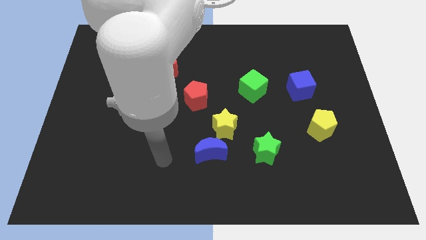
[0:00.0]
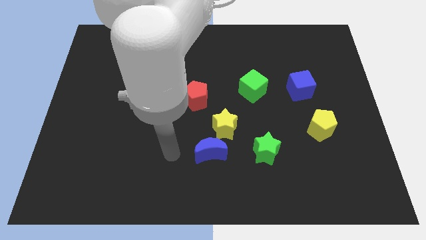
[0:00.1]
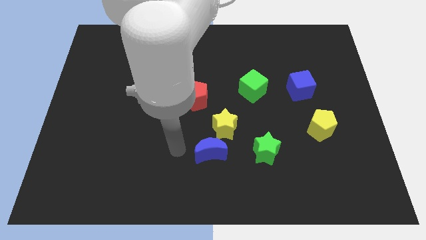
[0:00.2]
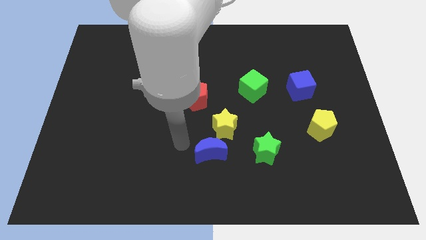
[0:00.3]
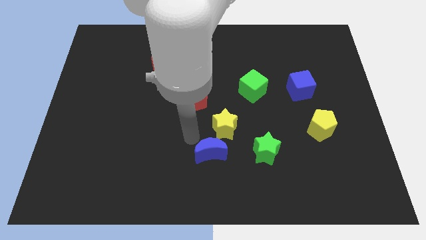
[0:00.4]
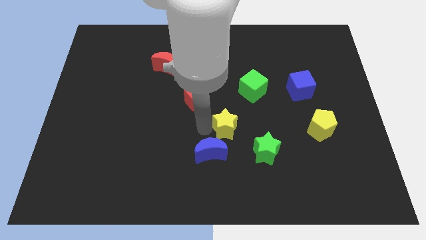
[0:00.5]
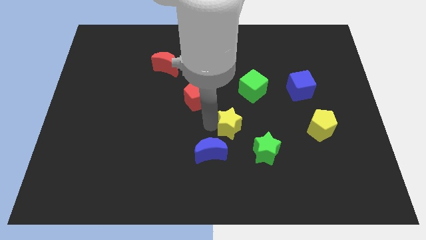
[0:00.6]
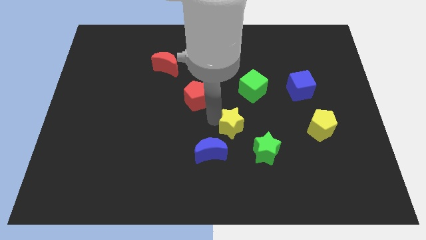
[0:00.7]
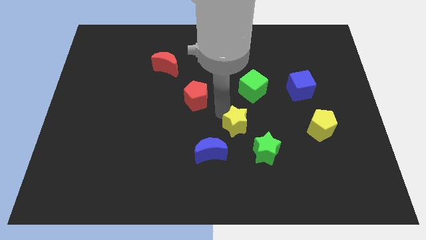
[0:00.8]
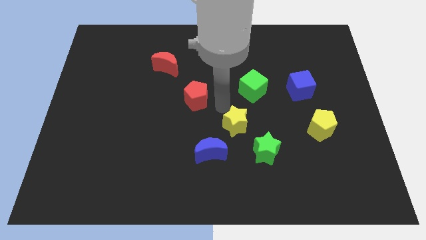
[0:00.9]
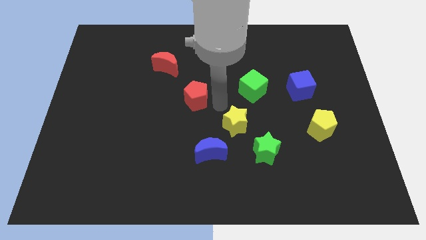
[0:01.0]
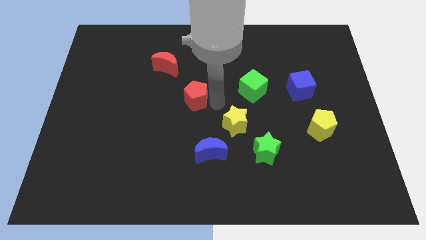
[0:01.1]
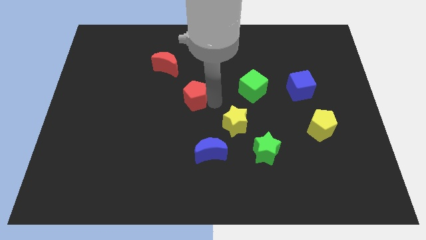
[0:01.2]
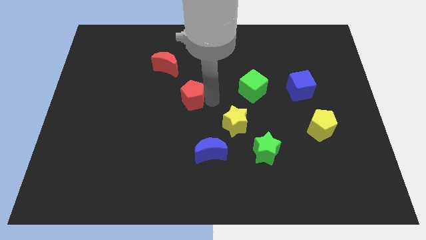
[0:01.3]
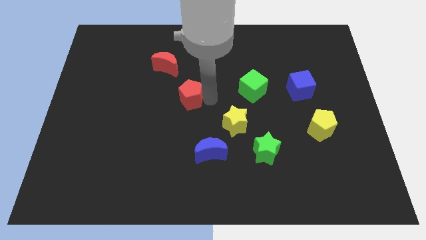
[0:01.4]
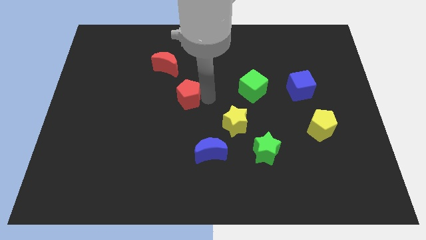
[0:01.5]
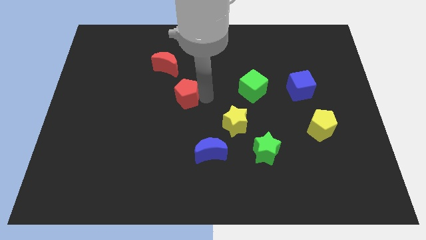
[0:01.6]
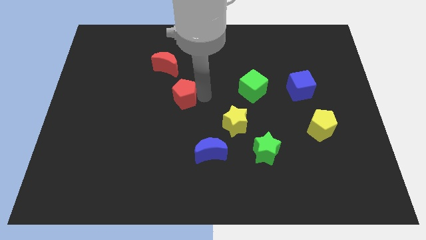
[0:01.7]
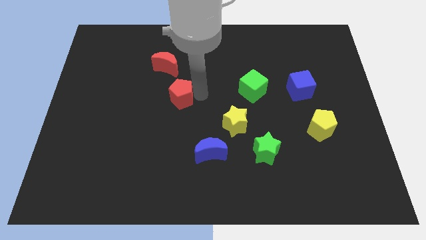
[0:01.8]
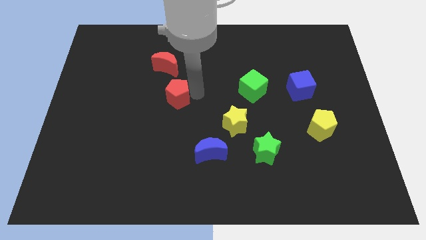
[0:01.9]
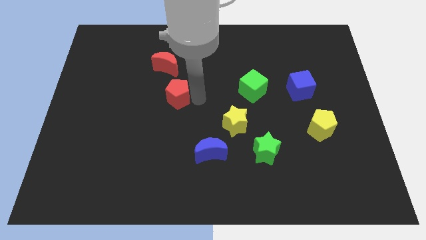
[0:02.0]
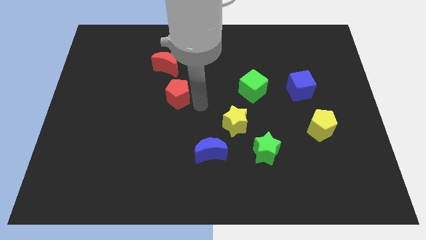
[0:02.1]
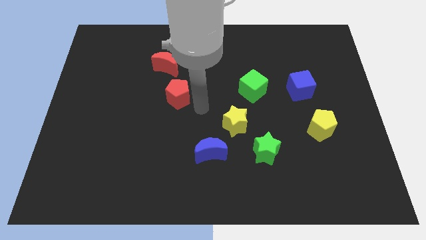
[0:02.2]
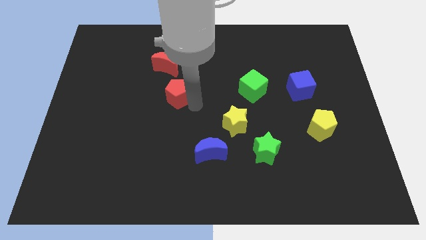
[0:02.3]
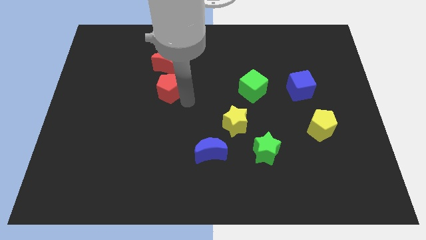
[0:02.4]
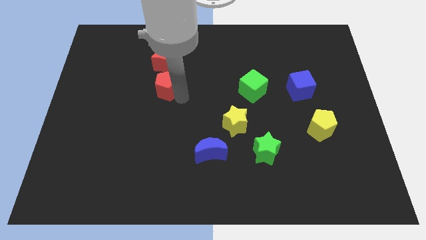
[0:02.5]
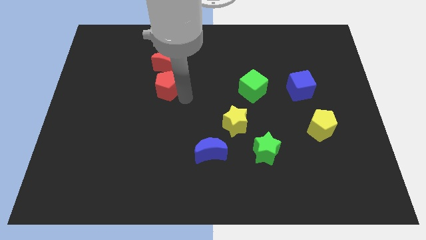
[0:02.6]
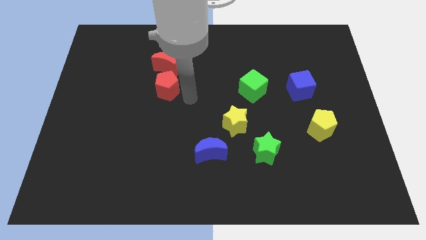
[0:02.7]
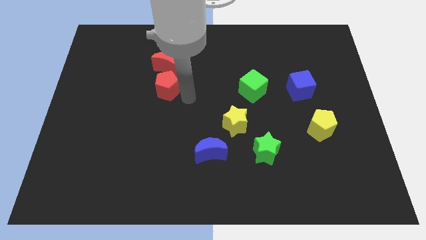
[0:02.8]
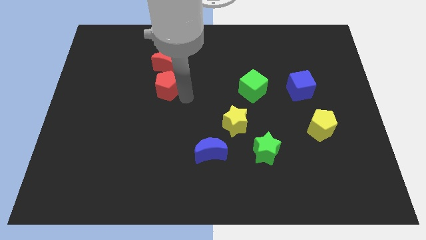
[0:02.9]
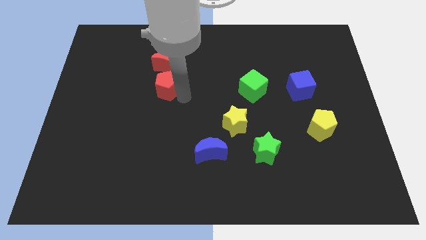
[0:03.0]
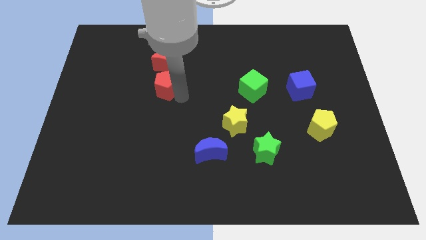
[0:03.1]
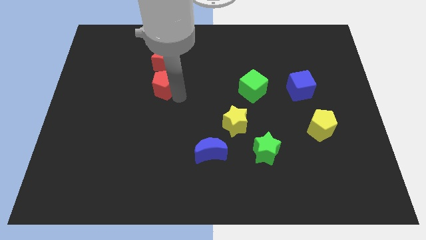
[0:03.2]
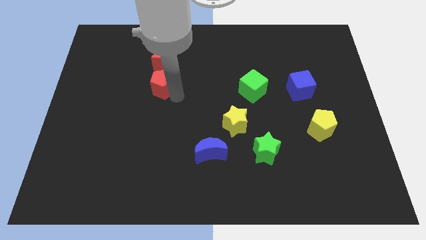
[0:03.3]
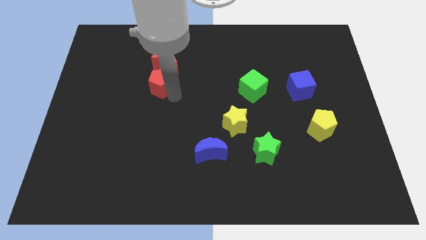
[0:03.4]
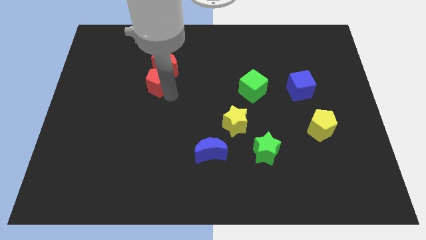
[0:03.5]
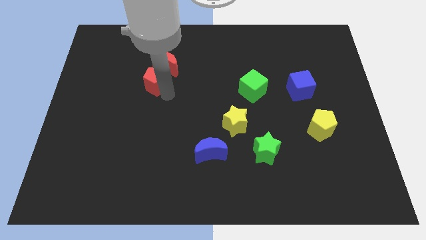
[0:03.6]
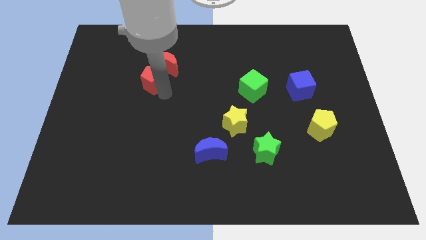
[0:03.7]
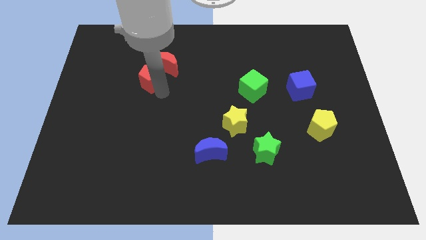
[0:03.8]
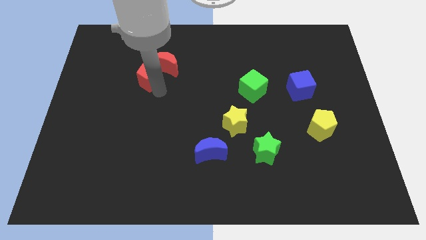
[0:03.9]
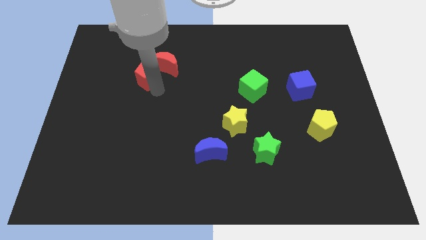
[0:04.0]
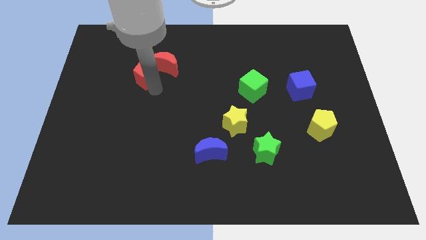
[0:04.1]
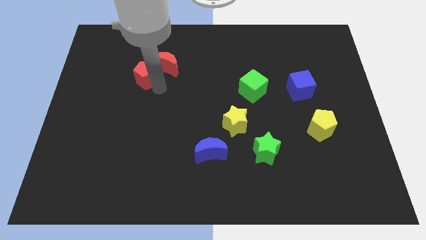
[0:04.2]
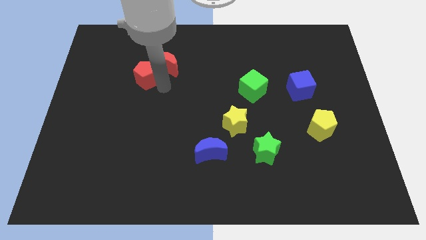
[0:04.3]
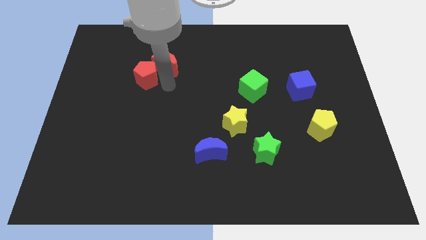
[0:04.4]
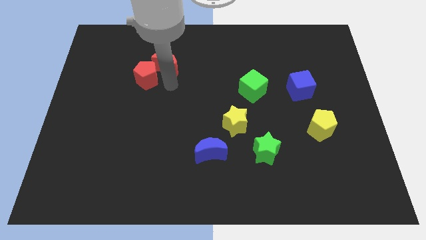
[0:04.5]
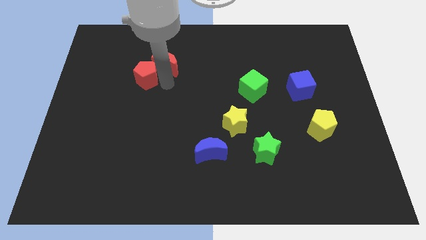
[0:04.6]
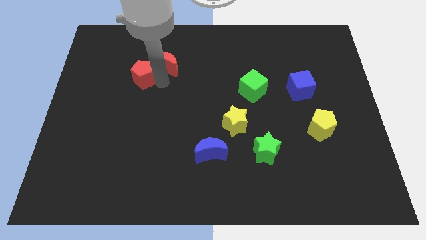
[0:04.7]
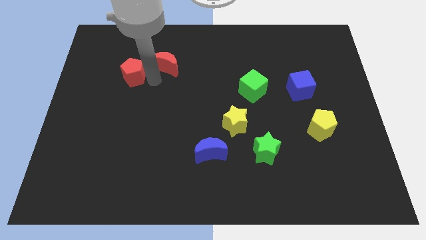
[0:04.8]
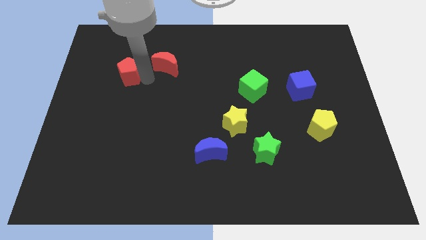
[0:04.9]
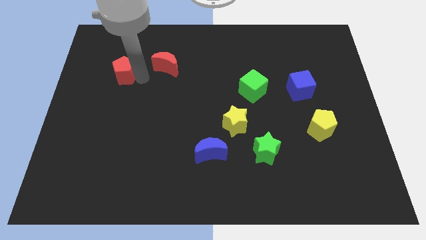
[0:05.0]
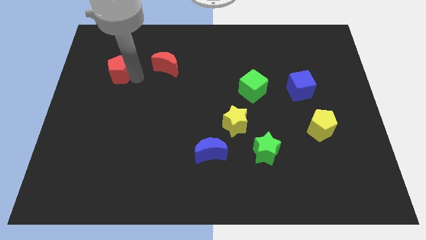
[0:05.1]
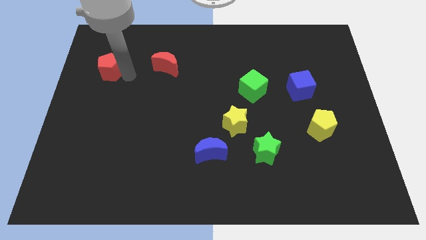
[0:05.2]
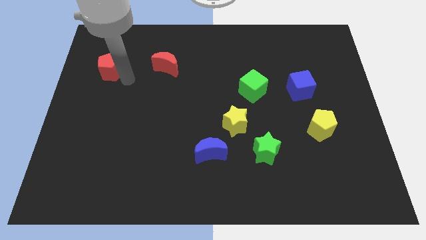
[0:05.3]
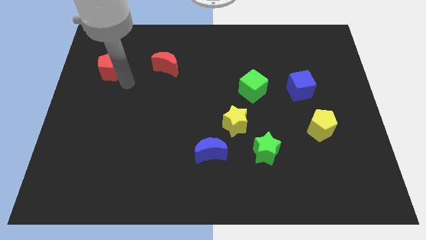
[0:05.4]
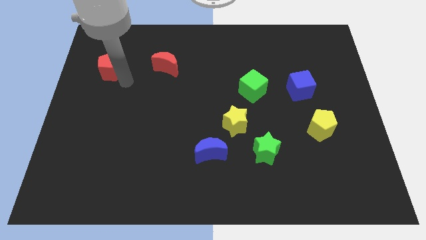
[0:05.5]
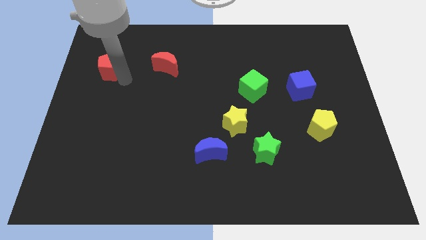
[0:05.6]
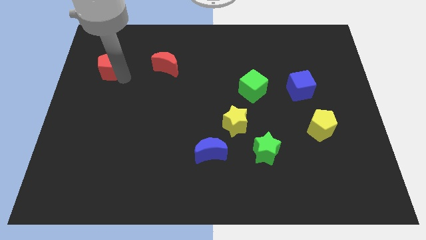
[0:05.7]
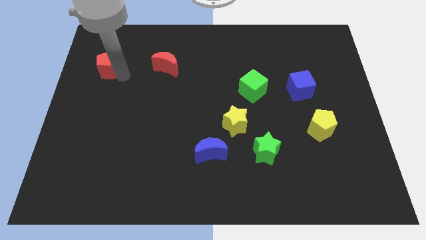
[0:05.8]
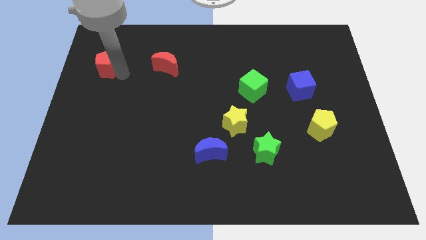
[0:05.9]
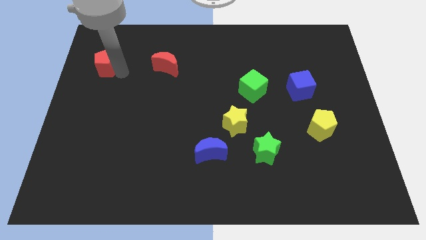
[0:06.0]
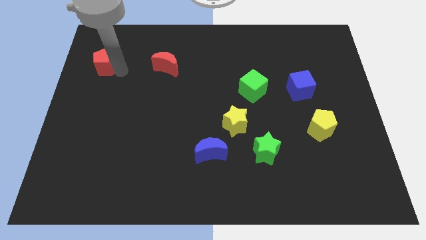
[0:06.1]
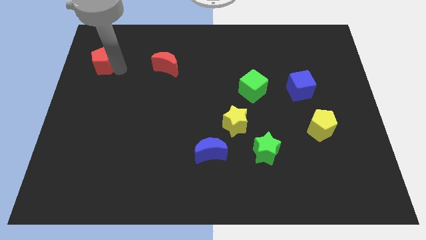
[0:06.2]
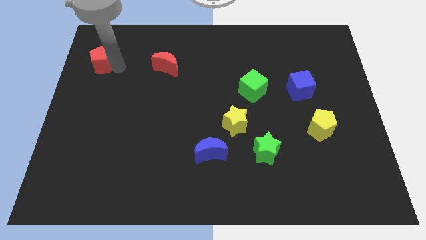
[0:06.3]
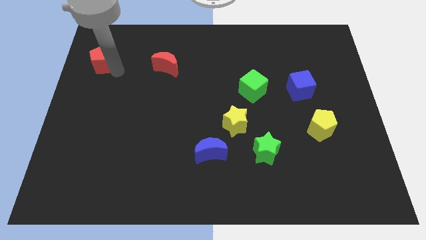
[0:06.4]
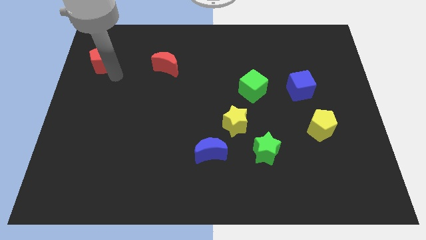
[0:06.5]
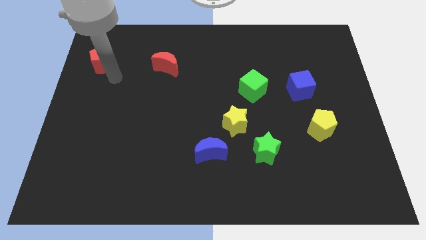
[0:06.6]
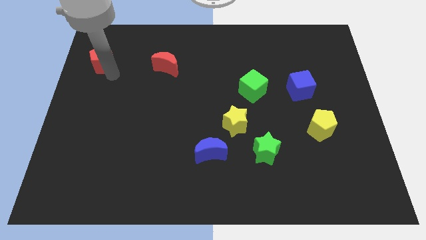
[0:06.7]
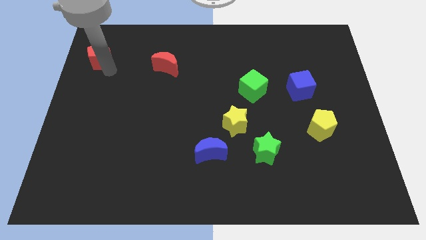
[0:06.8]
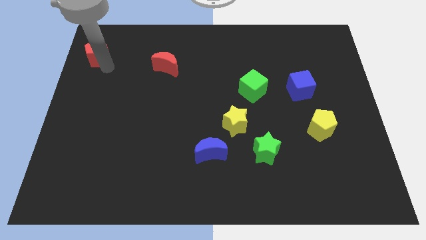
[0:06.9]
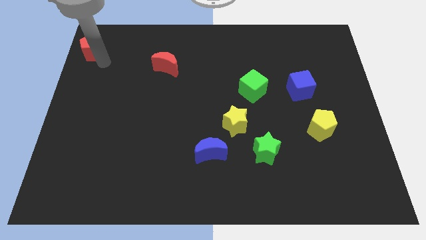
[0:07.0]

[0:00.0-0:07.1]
put the red pentagon to the top left of the board
